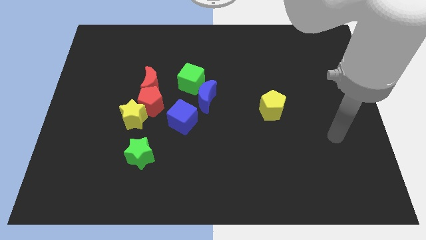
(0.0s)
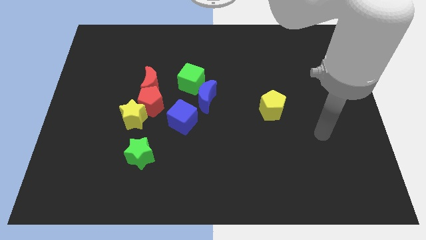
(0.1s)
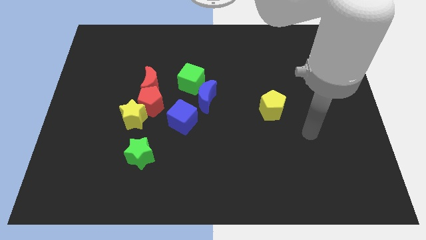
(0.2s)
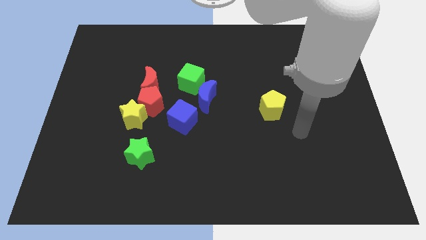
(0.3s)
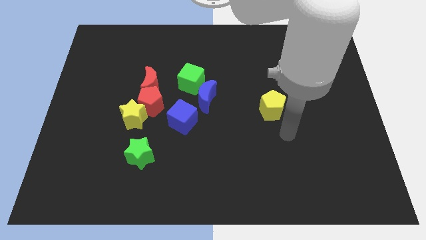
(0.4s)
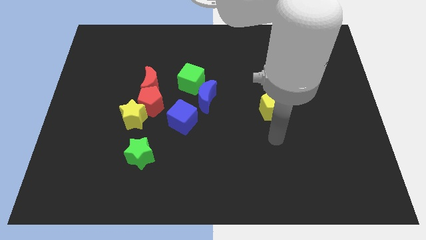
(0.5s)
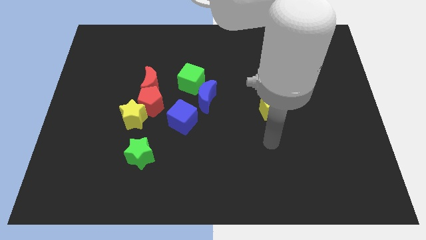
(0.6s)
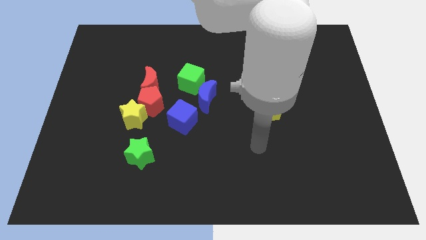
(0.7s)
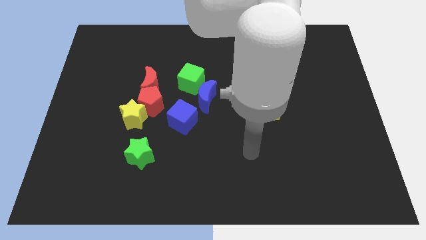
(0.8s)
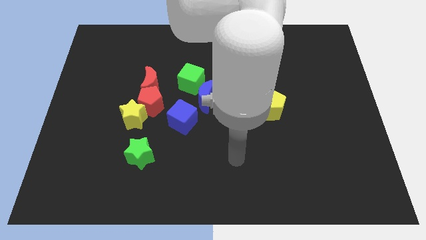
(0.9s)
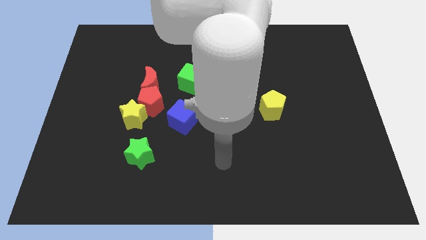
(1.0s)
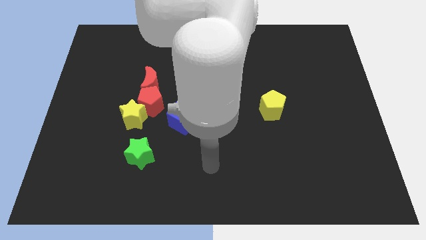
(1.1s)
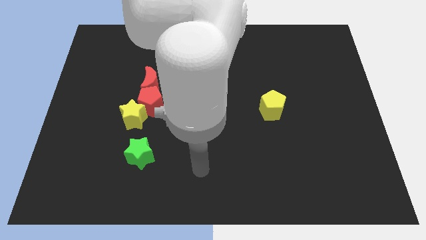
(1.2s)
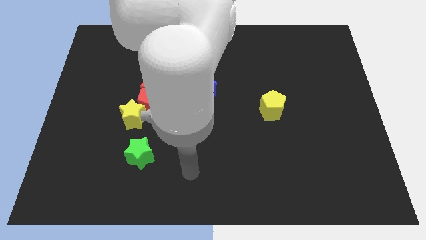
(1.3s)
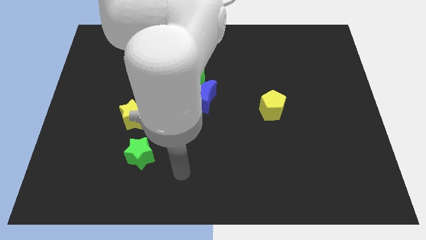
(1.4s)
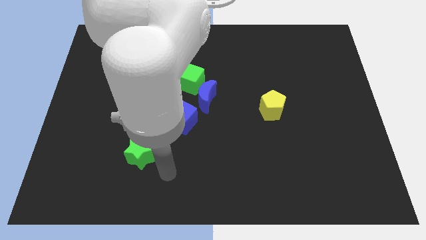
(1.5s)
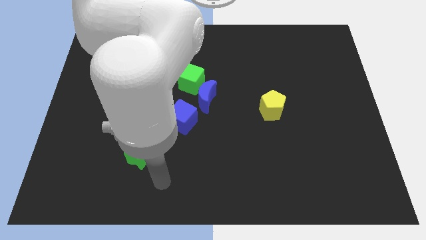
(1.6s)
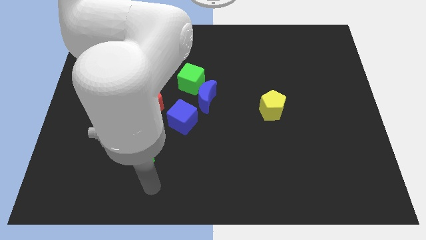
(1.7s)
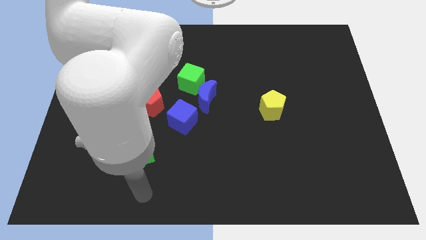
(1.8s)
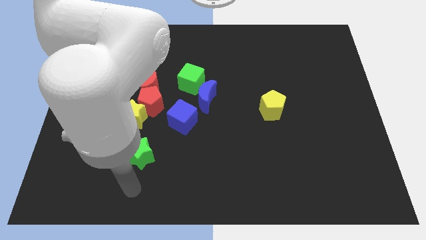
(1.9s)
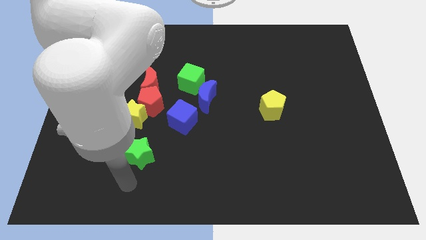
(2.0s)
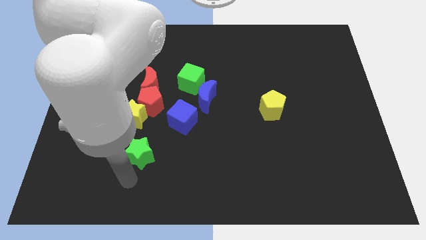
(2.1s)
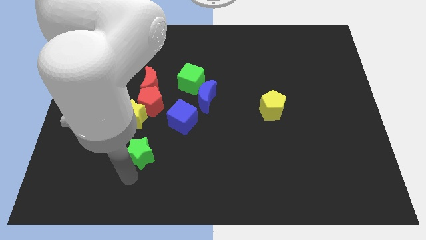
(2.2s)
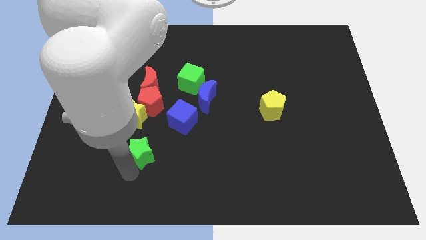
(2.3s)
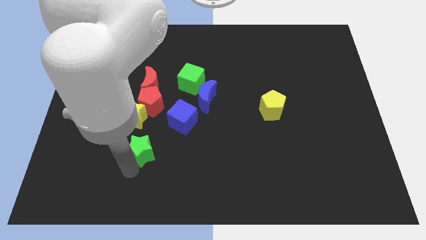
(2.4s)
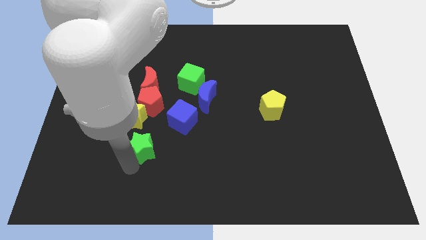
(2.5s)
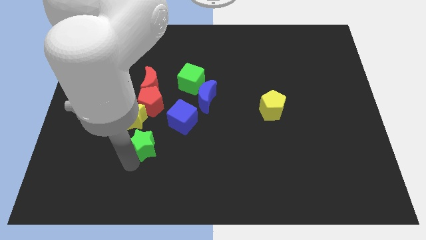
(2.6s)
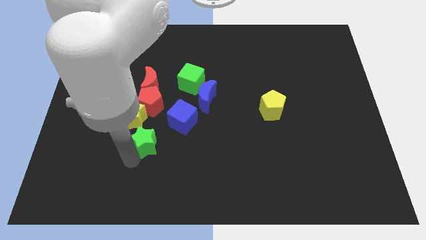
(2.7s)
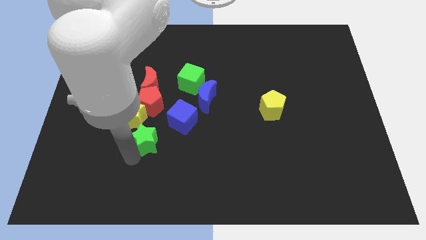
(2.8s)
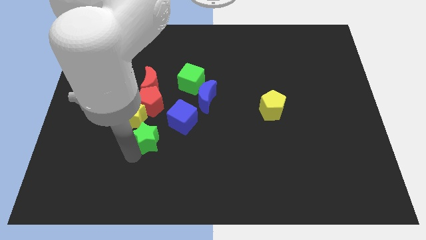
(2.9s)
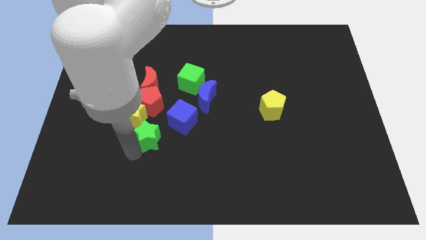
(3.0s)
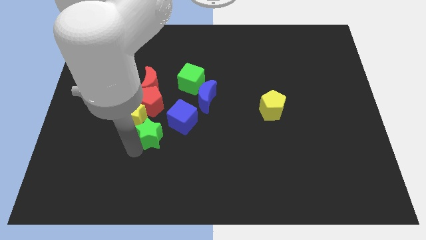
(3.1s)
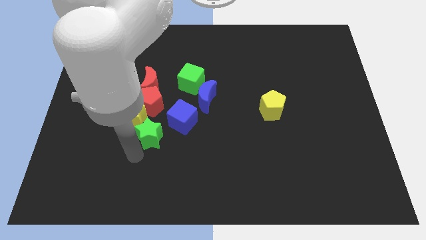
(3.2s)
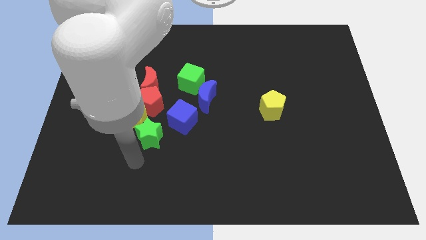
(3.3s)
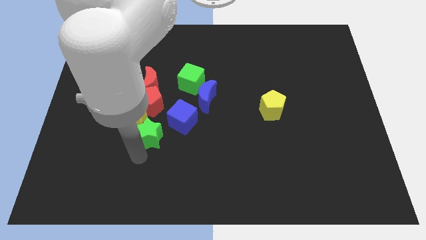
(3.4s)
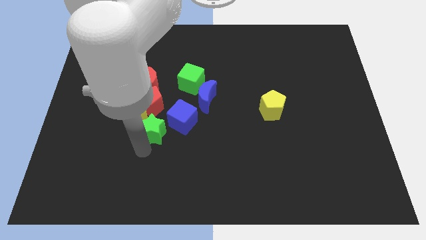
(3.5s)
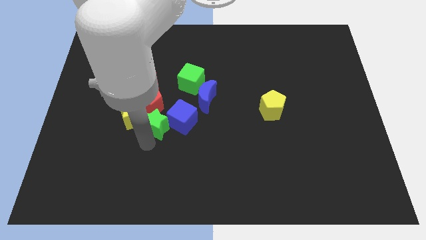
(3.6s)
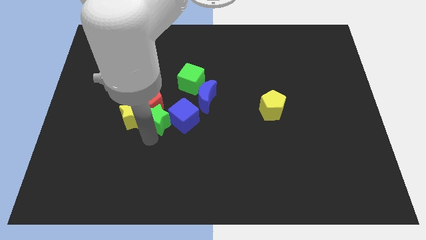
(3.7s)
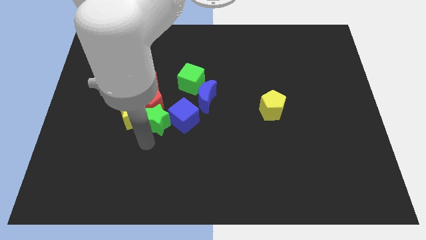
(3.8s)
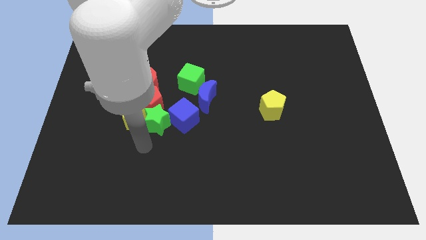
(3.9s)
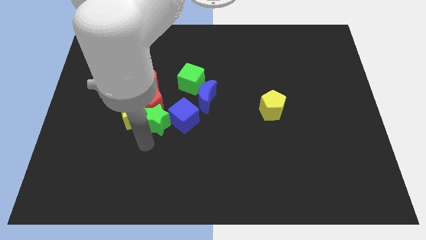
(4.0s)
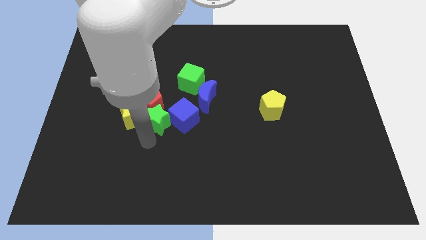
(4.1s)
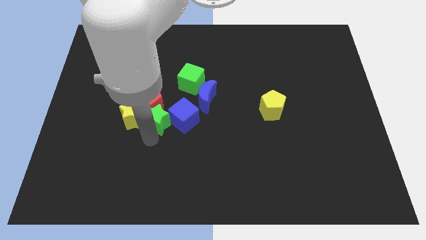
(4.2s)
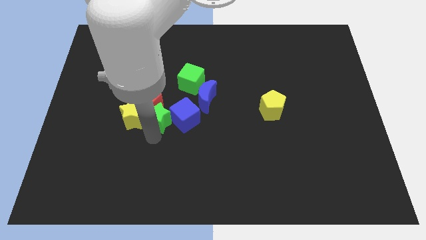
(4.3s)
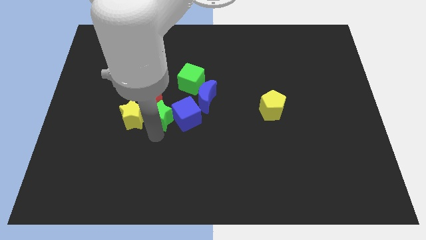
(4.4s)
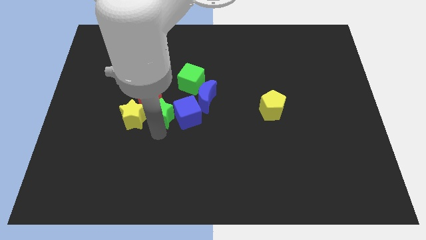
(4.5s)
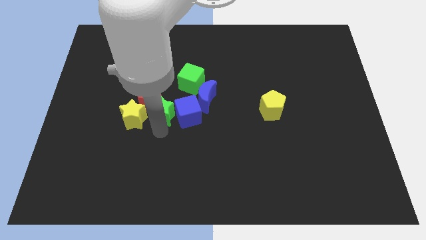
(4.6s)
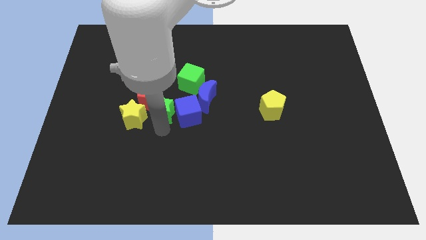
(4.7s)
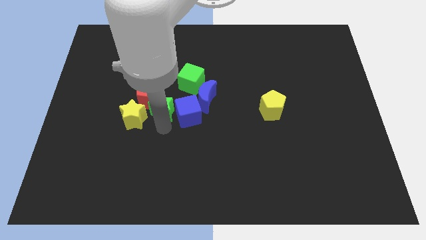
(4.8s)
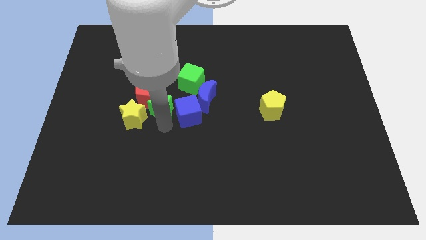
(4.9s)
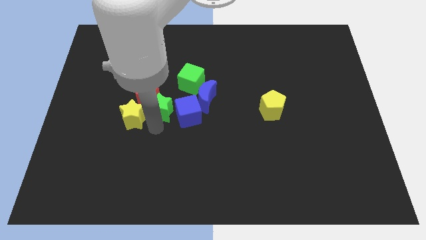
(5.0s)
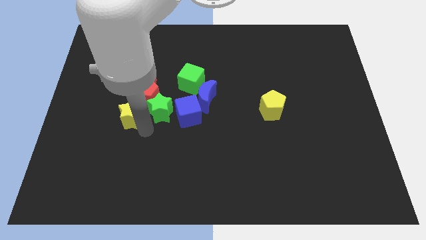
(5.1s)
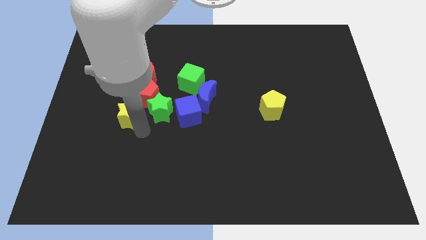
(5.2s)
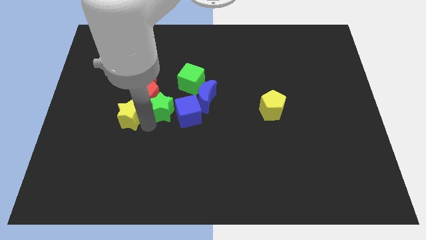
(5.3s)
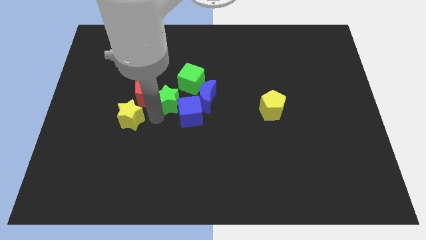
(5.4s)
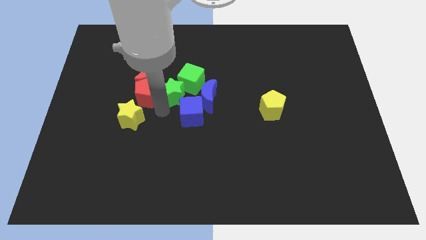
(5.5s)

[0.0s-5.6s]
put the green star towards the green cube

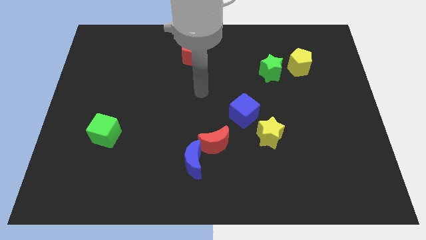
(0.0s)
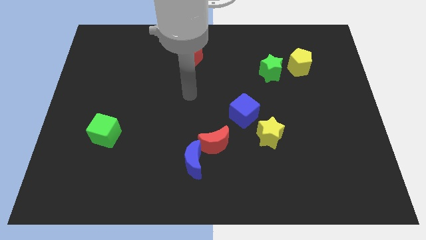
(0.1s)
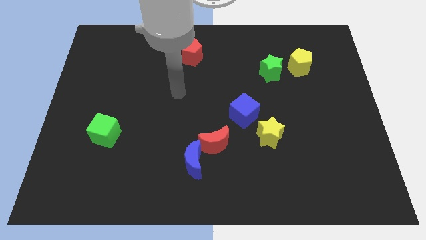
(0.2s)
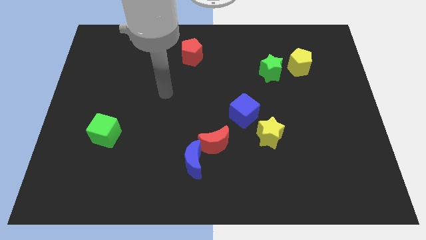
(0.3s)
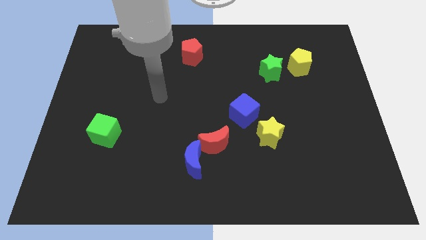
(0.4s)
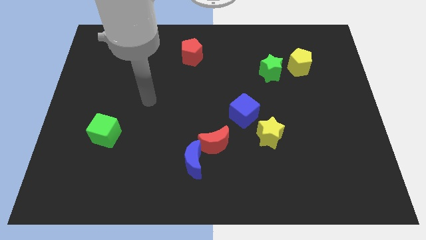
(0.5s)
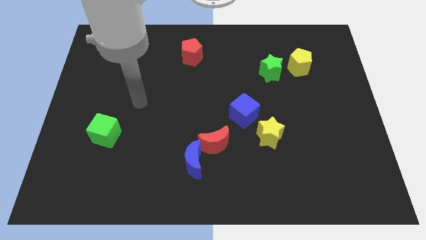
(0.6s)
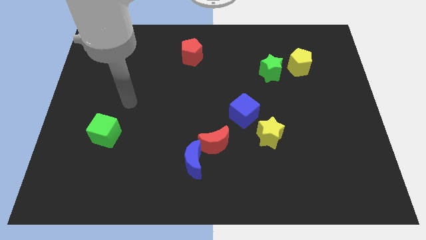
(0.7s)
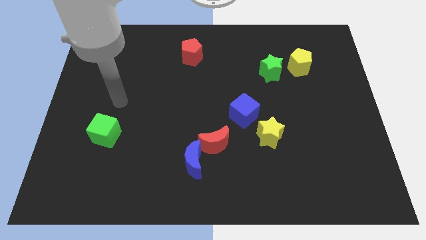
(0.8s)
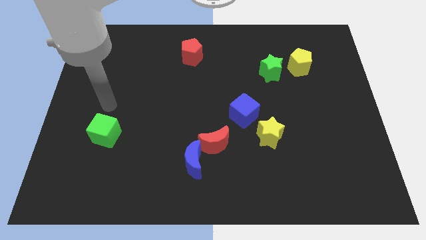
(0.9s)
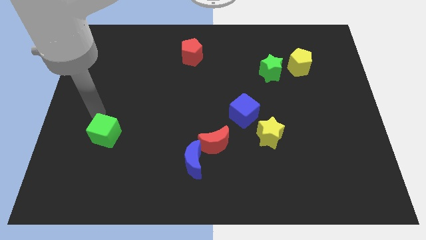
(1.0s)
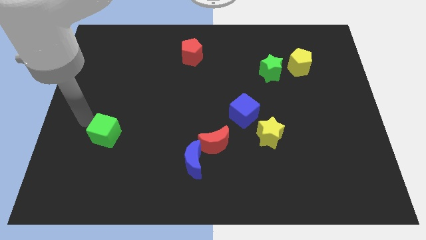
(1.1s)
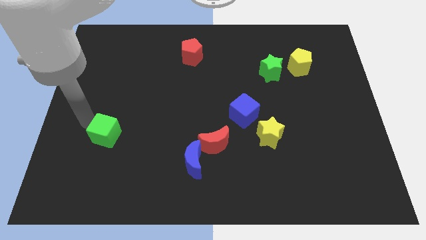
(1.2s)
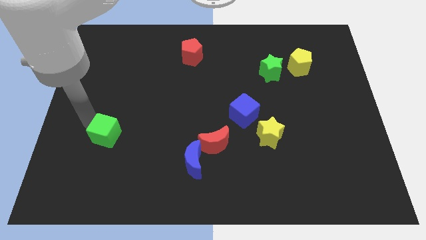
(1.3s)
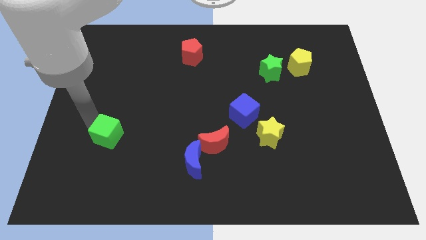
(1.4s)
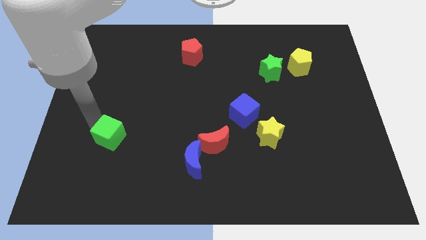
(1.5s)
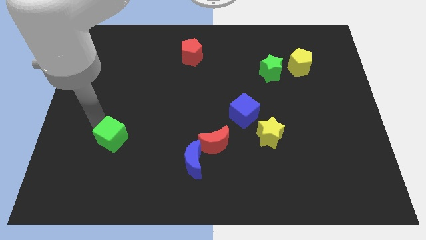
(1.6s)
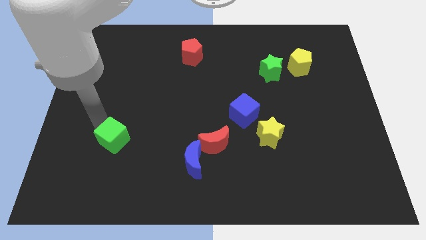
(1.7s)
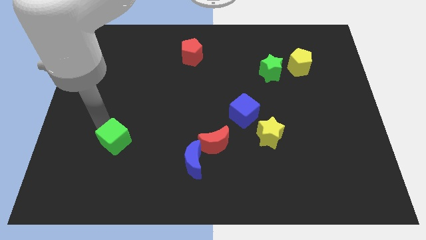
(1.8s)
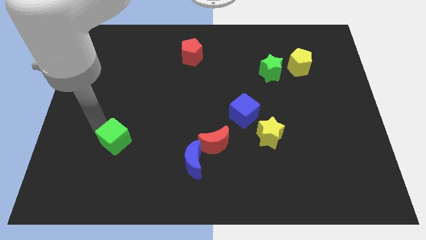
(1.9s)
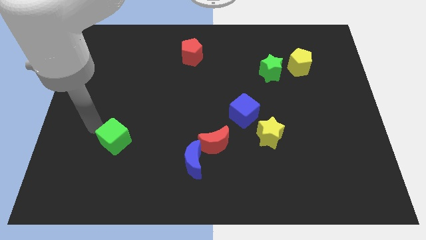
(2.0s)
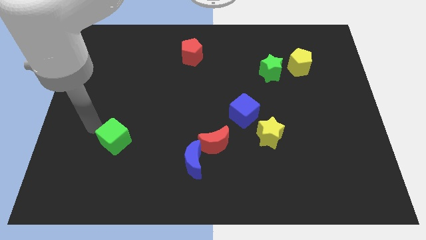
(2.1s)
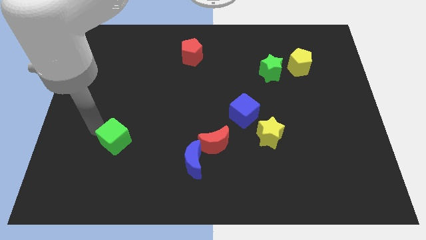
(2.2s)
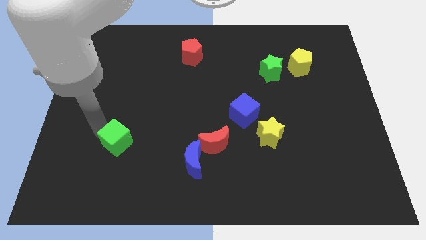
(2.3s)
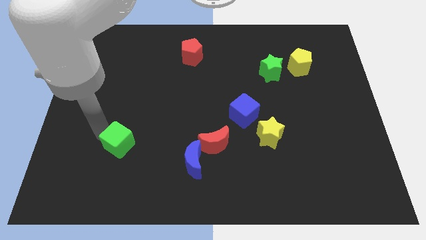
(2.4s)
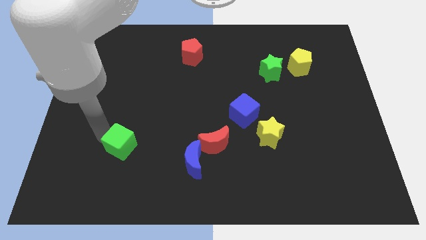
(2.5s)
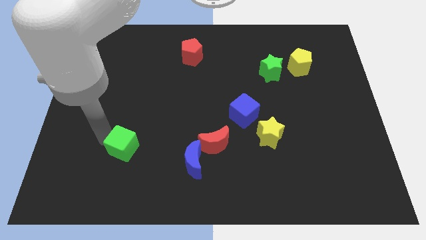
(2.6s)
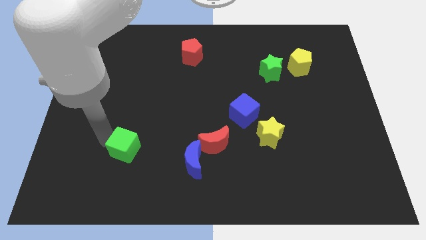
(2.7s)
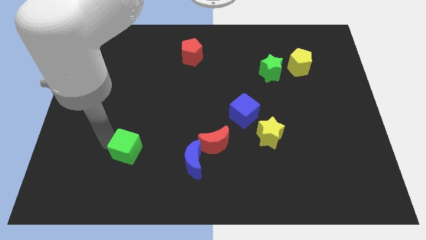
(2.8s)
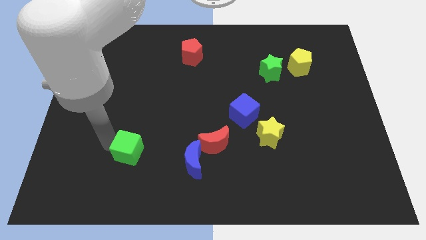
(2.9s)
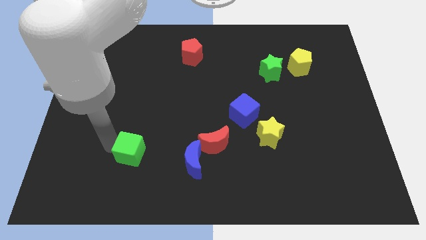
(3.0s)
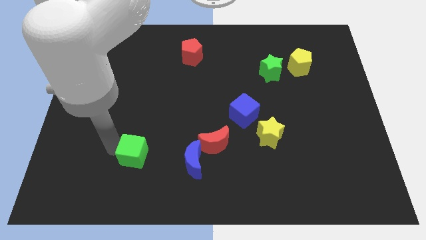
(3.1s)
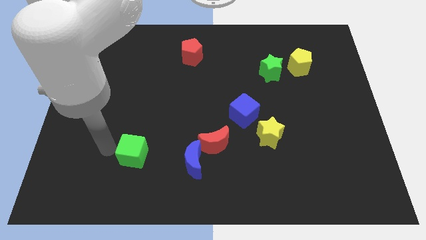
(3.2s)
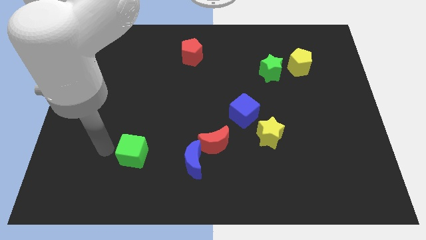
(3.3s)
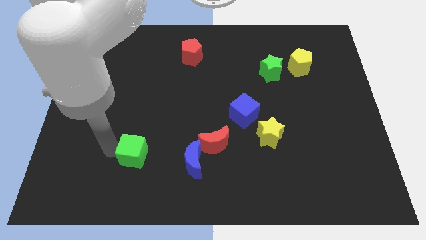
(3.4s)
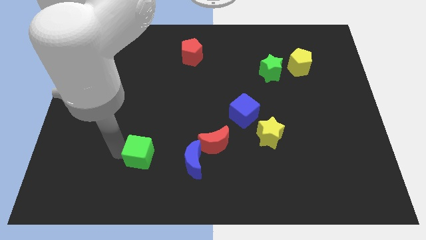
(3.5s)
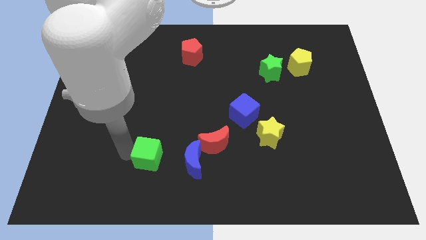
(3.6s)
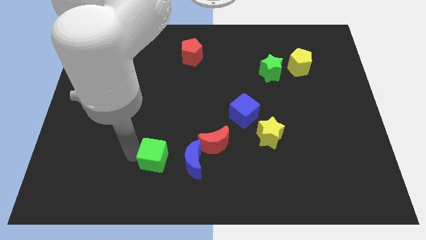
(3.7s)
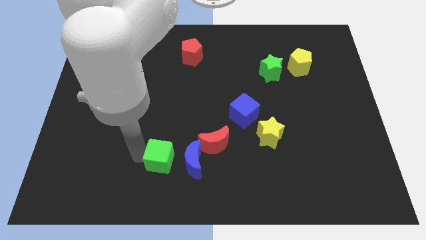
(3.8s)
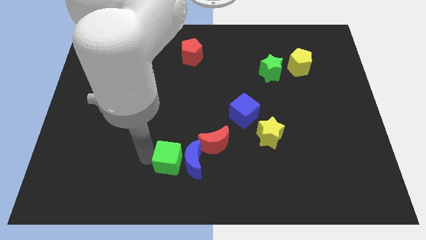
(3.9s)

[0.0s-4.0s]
put the green cube next to the blue moon
